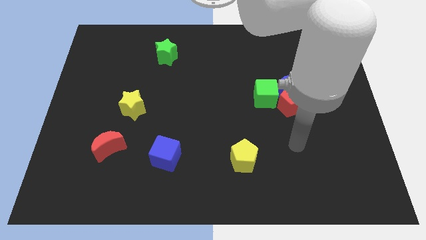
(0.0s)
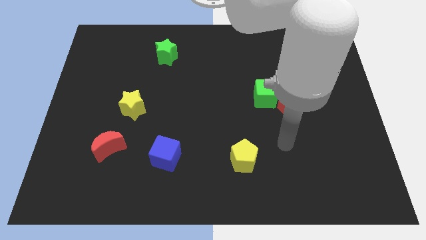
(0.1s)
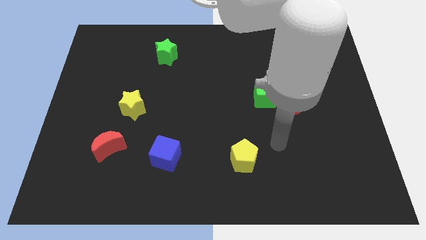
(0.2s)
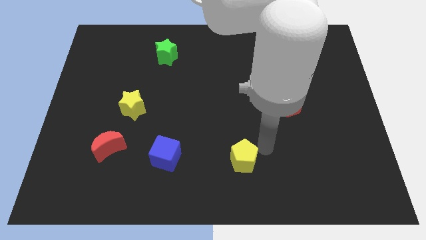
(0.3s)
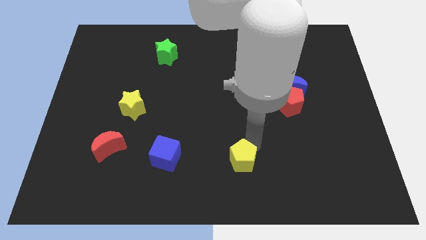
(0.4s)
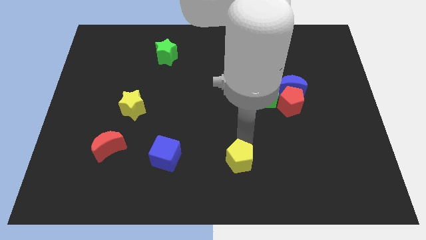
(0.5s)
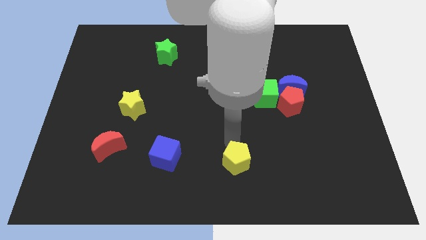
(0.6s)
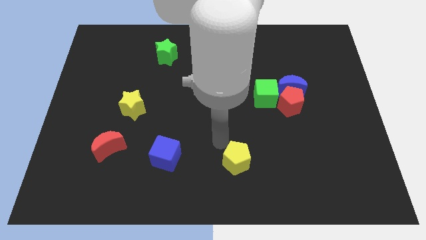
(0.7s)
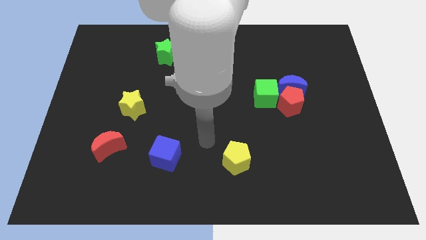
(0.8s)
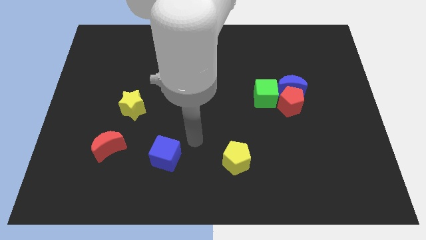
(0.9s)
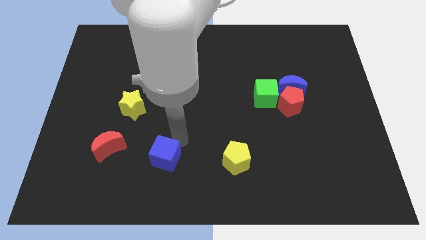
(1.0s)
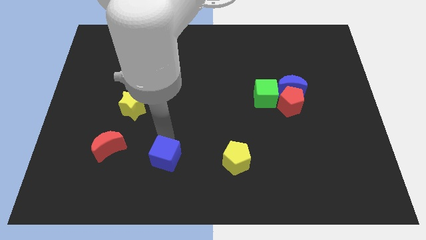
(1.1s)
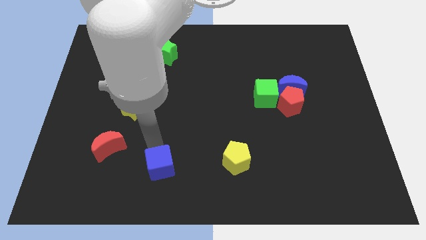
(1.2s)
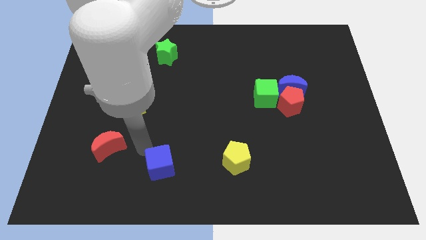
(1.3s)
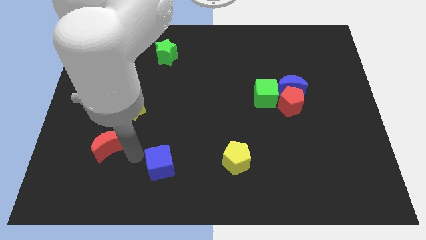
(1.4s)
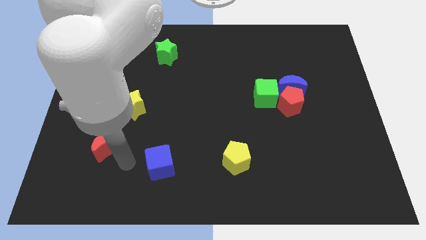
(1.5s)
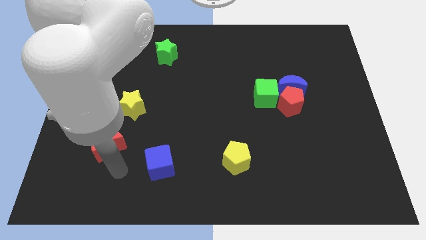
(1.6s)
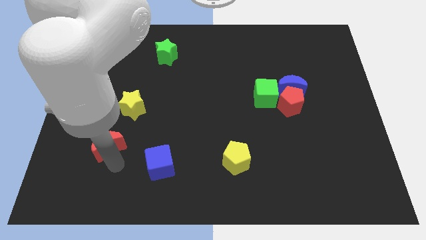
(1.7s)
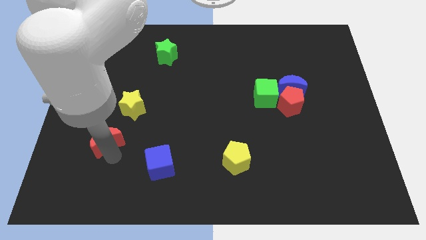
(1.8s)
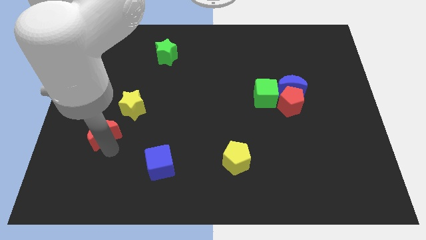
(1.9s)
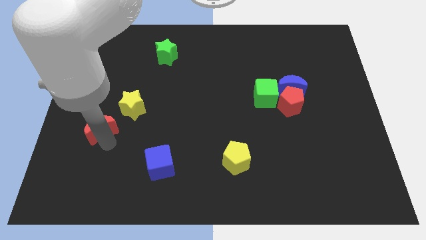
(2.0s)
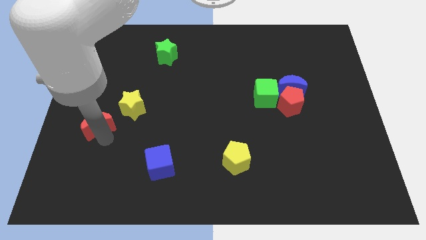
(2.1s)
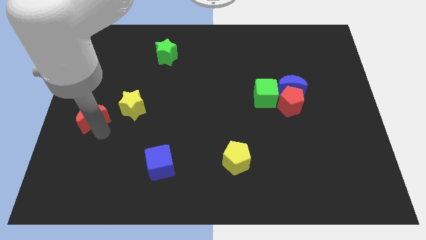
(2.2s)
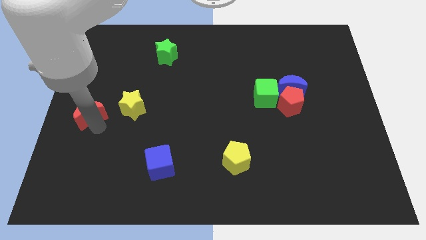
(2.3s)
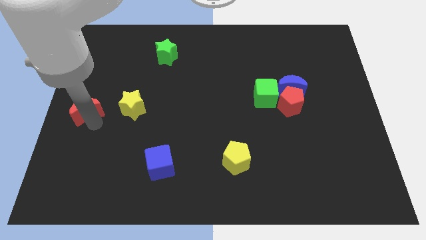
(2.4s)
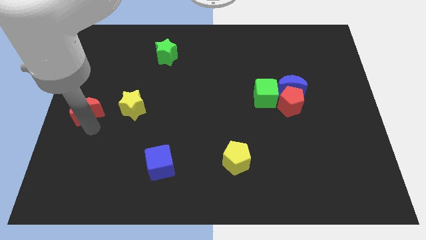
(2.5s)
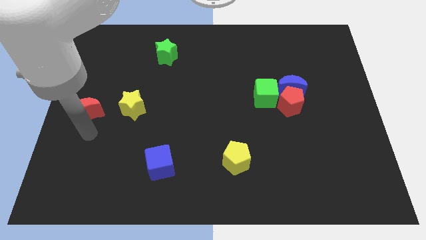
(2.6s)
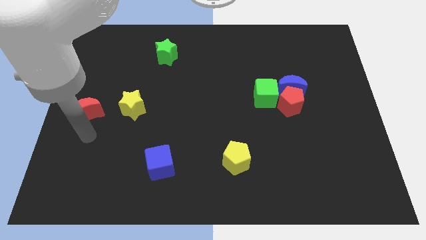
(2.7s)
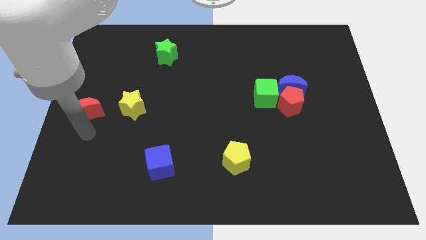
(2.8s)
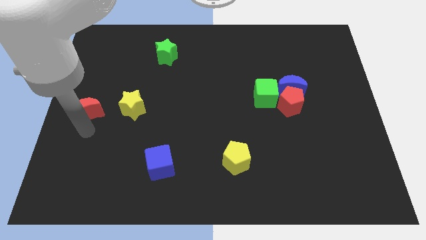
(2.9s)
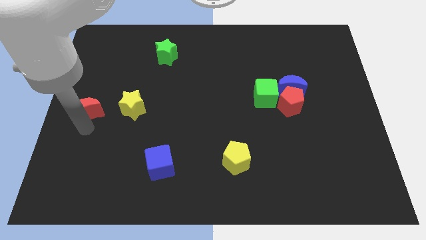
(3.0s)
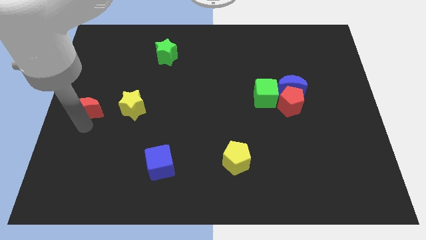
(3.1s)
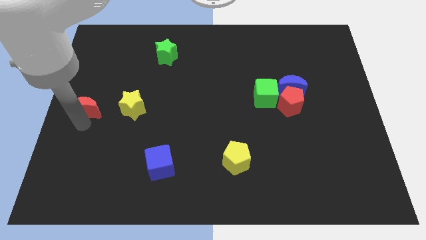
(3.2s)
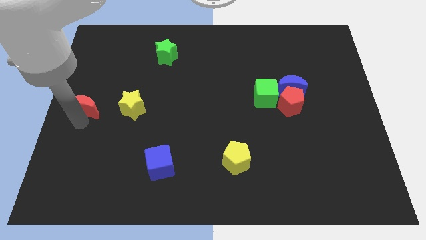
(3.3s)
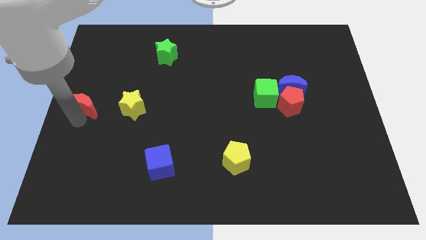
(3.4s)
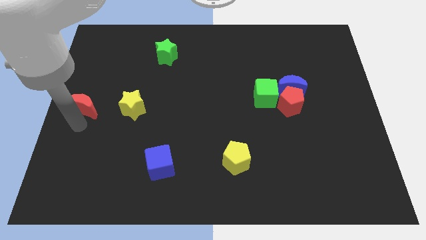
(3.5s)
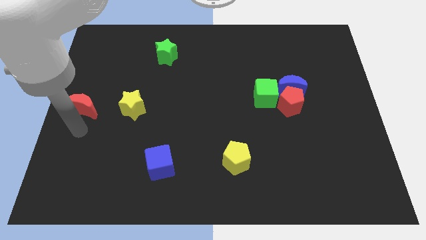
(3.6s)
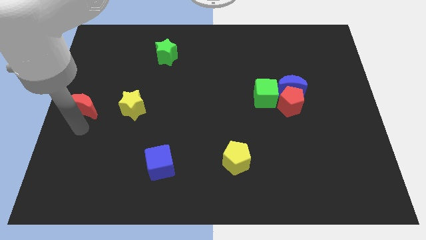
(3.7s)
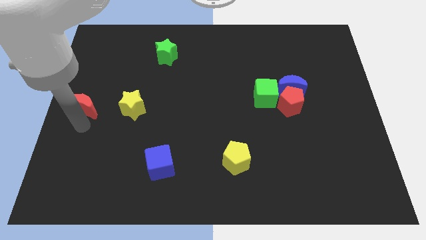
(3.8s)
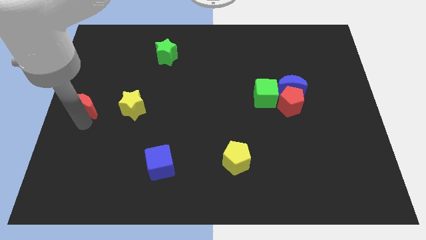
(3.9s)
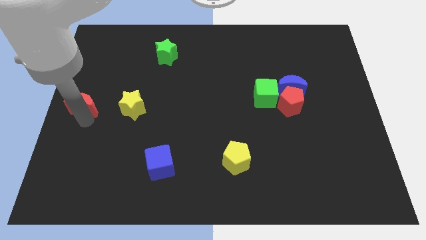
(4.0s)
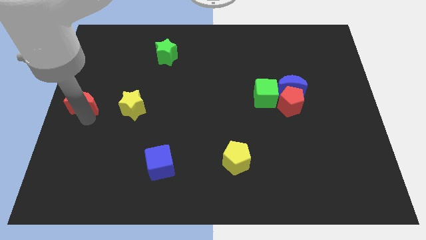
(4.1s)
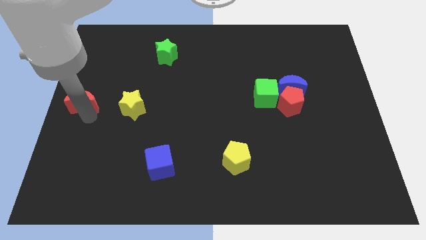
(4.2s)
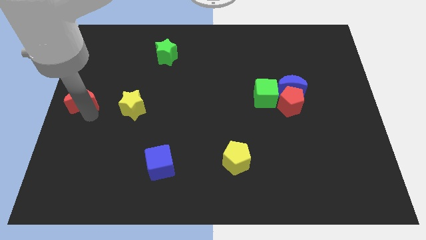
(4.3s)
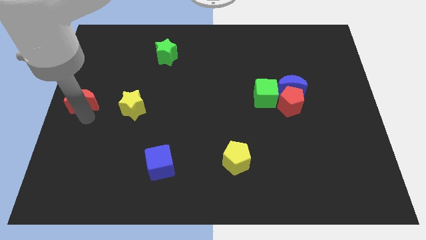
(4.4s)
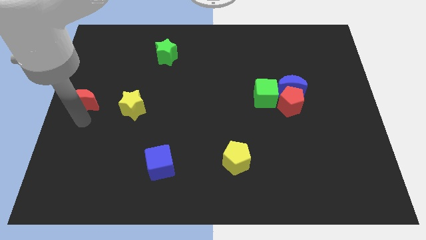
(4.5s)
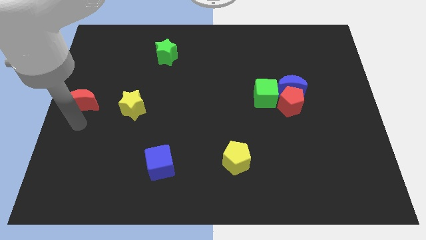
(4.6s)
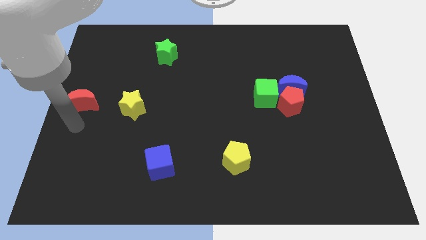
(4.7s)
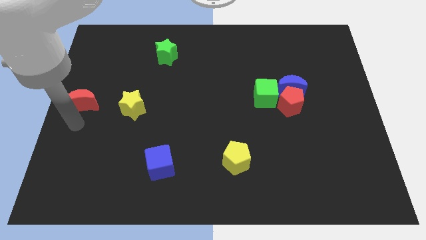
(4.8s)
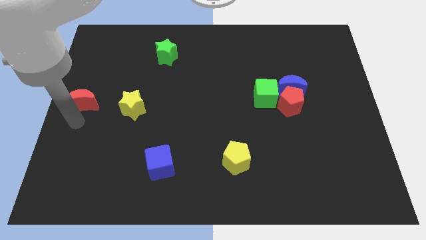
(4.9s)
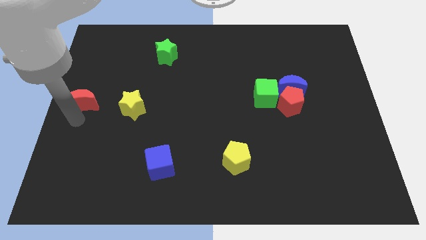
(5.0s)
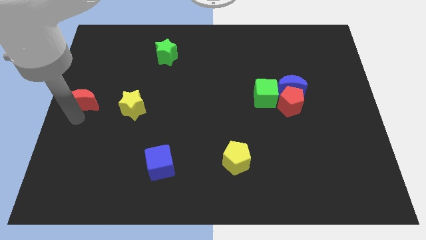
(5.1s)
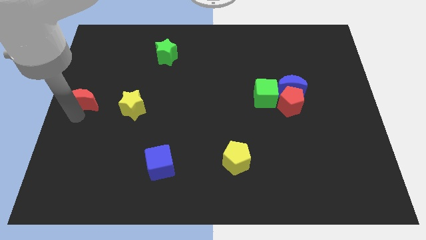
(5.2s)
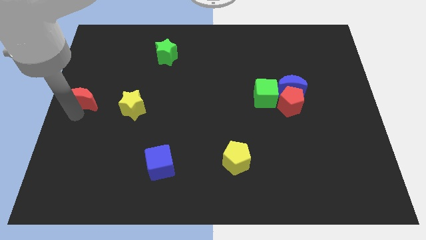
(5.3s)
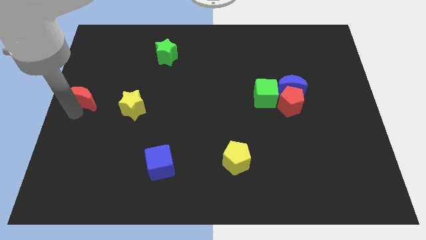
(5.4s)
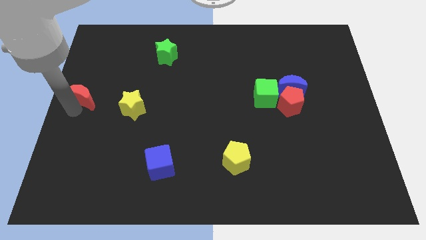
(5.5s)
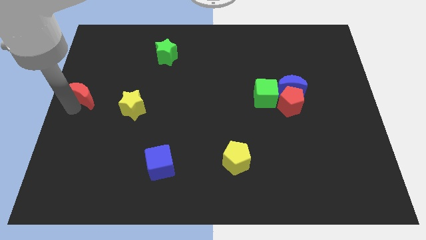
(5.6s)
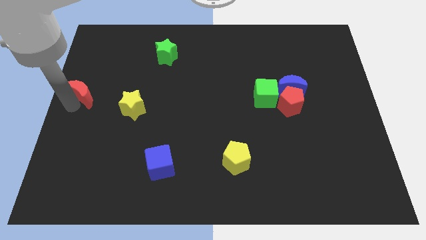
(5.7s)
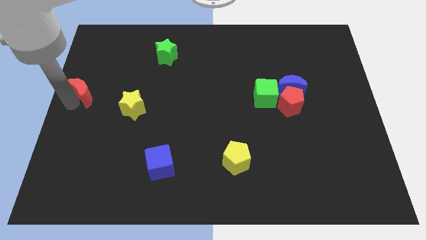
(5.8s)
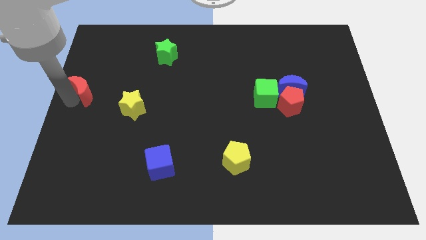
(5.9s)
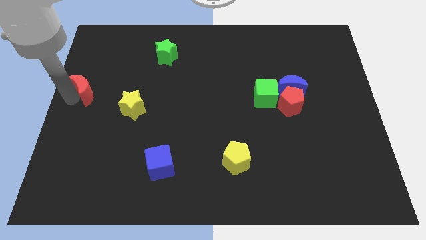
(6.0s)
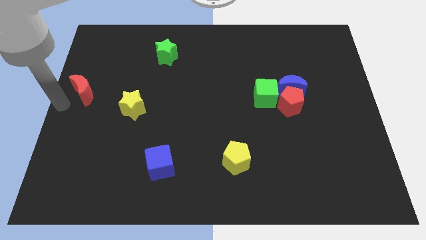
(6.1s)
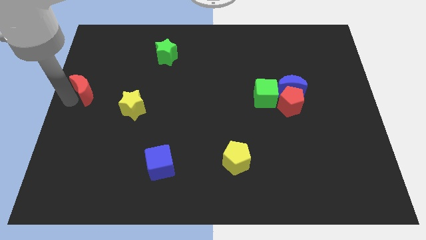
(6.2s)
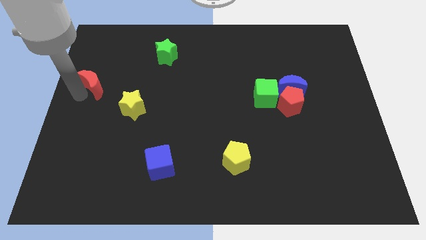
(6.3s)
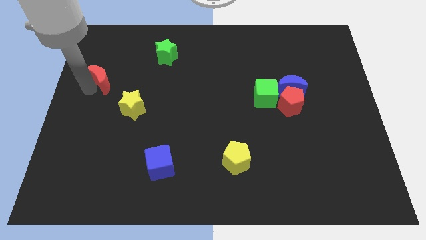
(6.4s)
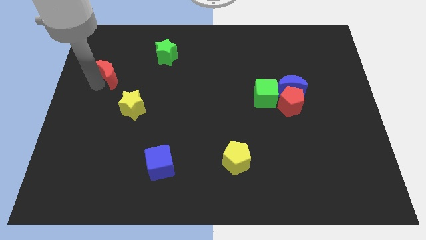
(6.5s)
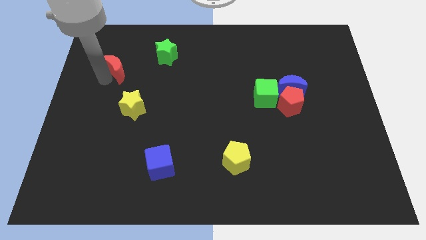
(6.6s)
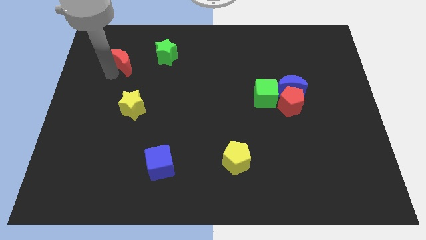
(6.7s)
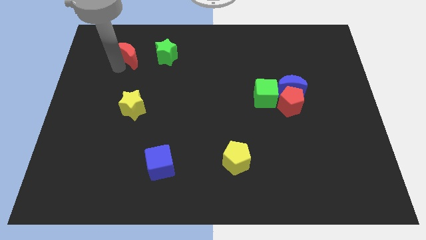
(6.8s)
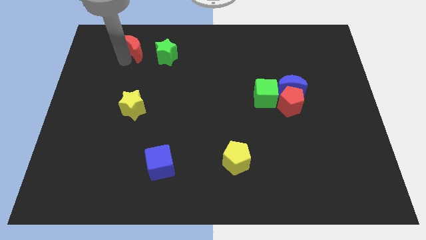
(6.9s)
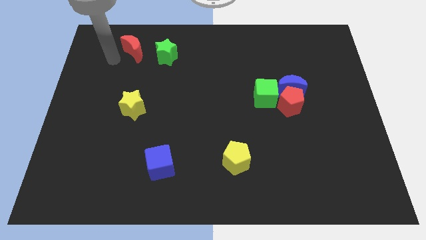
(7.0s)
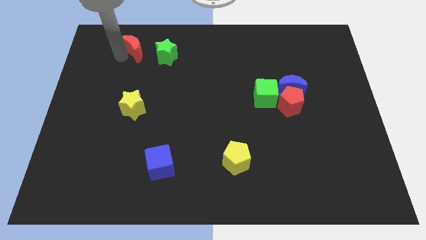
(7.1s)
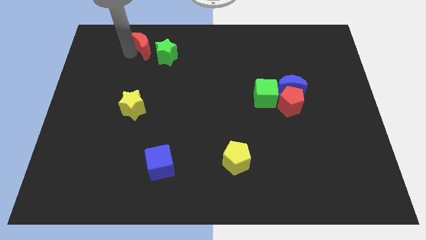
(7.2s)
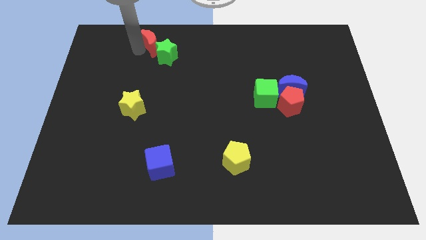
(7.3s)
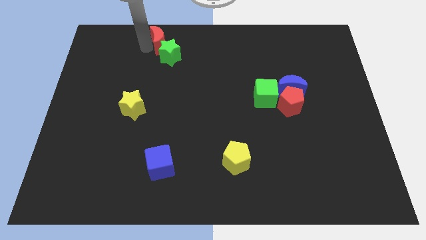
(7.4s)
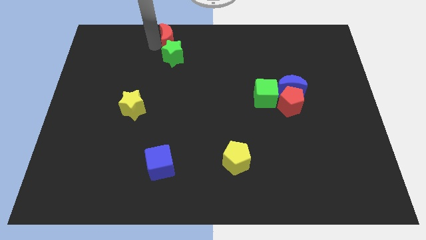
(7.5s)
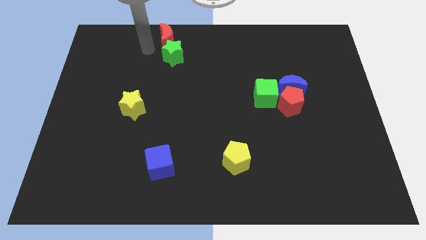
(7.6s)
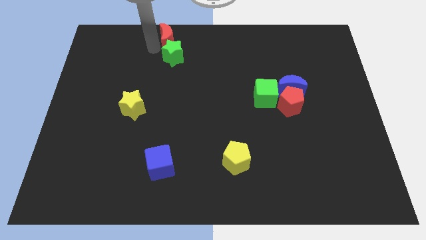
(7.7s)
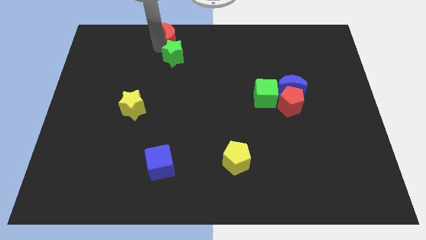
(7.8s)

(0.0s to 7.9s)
slide the red moon to the towards your base
